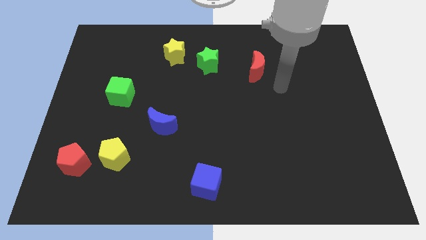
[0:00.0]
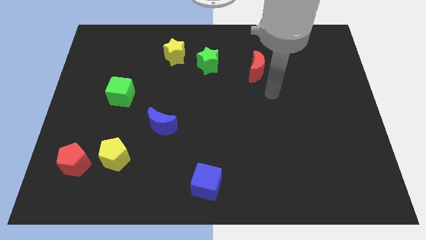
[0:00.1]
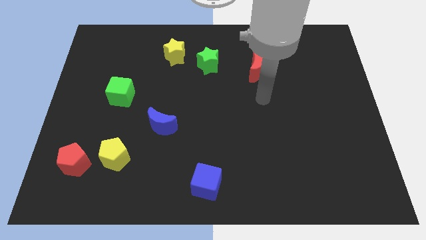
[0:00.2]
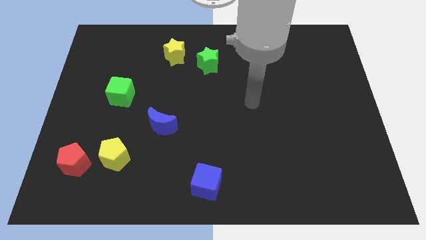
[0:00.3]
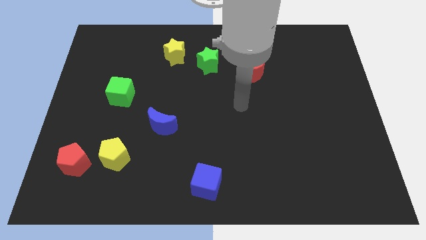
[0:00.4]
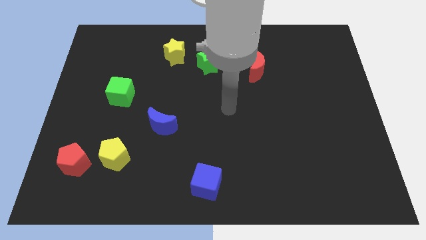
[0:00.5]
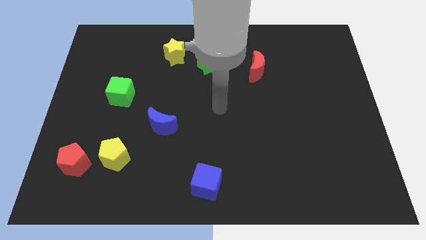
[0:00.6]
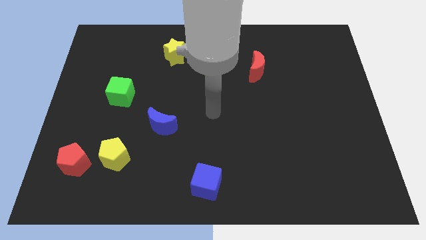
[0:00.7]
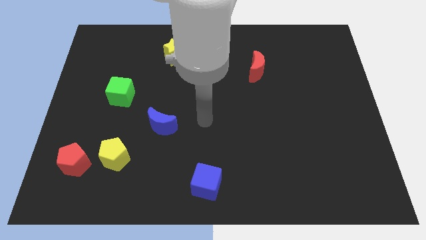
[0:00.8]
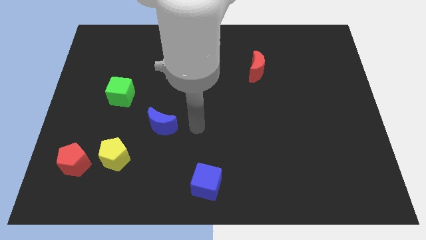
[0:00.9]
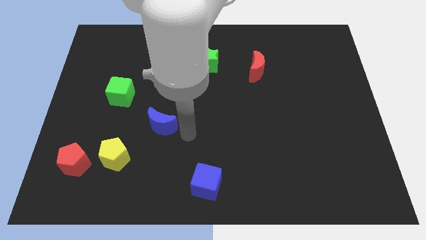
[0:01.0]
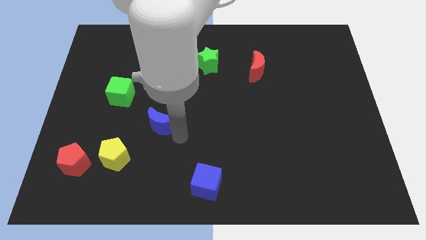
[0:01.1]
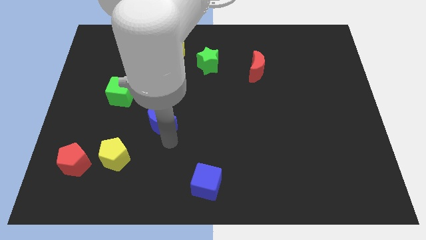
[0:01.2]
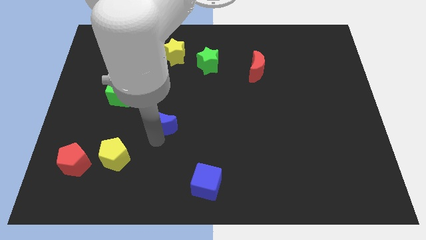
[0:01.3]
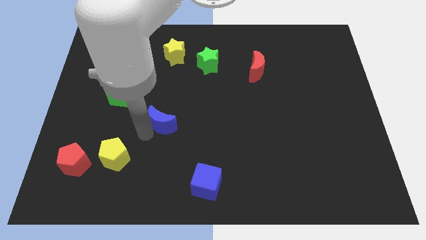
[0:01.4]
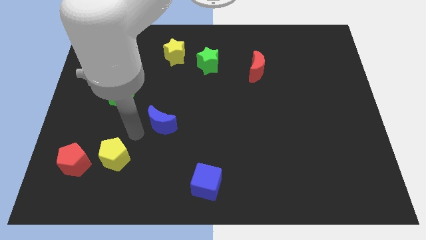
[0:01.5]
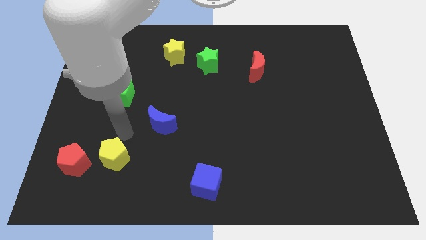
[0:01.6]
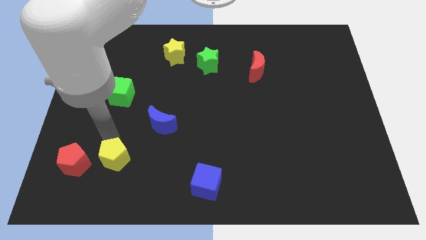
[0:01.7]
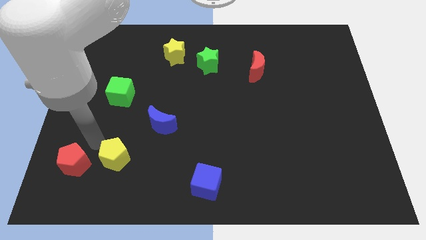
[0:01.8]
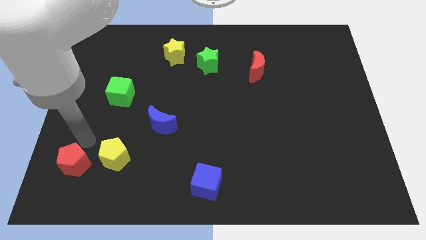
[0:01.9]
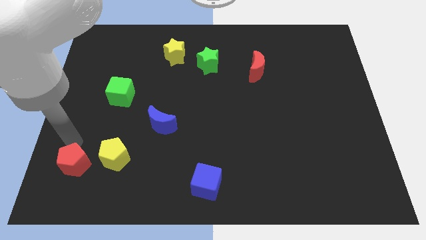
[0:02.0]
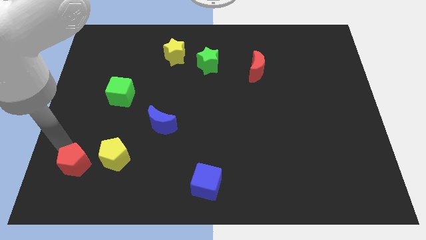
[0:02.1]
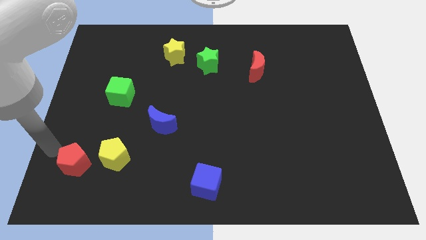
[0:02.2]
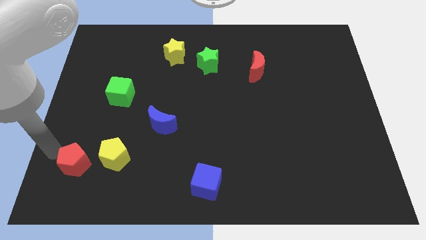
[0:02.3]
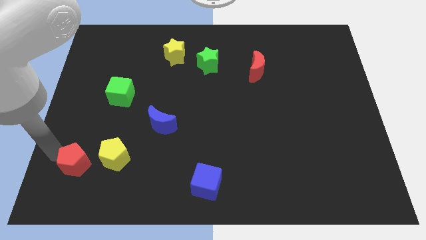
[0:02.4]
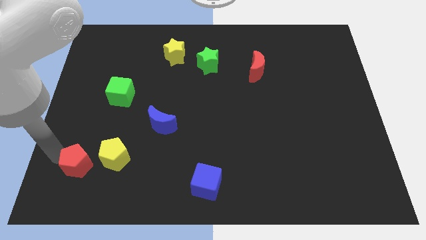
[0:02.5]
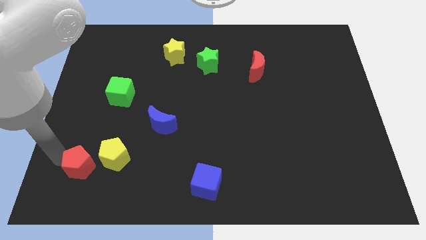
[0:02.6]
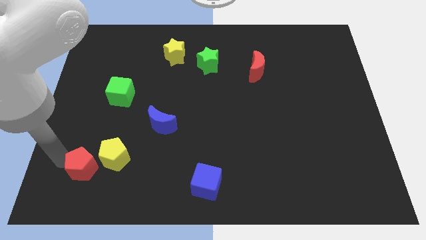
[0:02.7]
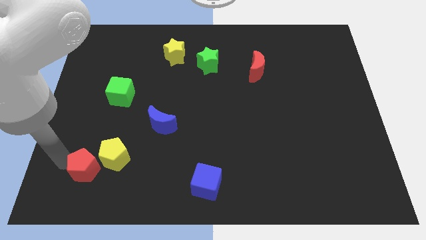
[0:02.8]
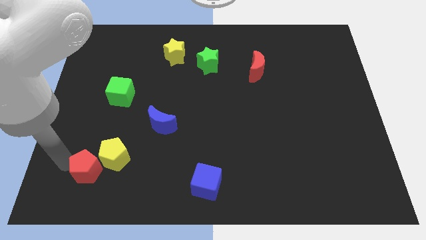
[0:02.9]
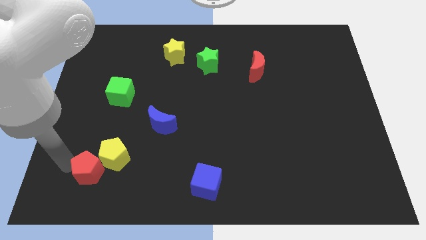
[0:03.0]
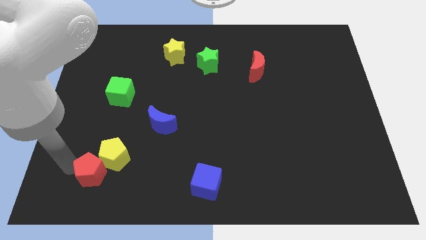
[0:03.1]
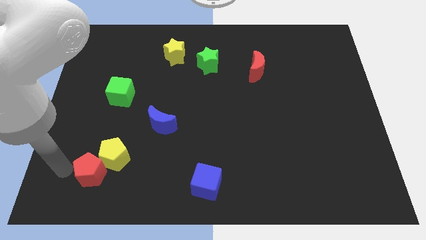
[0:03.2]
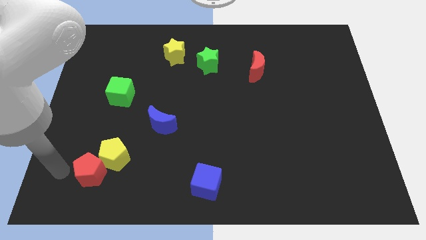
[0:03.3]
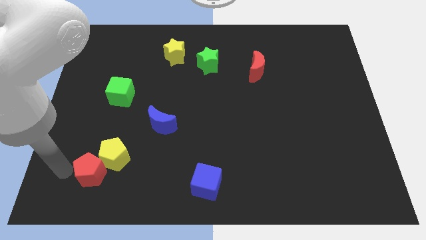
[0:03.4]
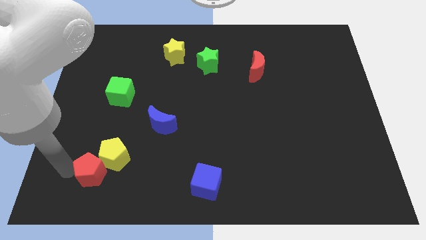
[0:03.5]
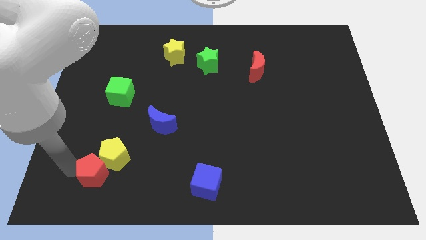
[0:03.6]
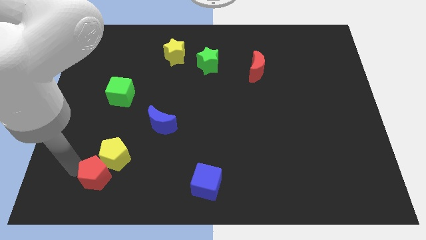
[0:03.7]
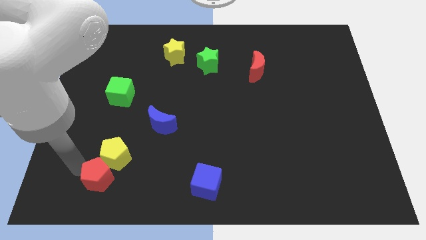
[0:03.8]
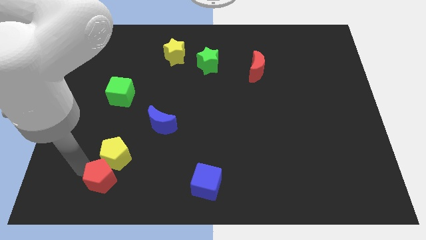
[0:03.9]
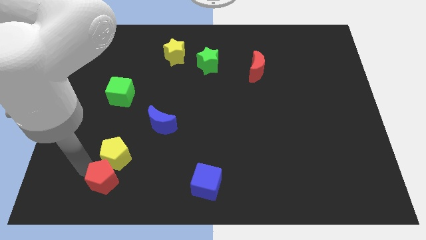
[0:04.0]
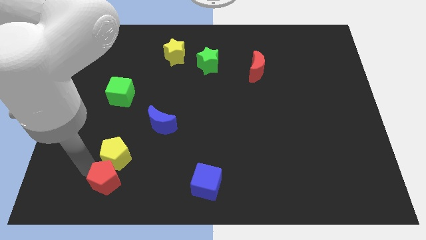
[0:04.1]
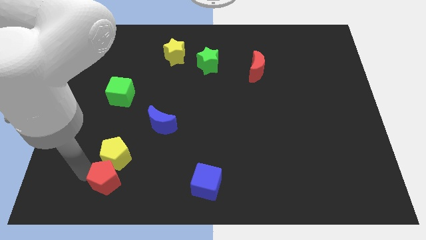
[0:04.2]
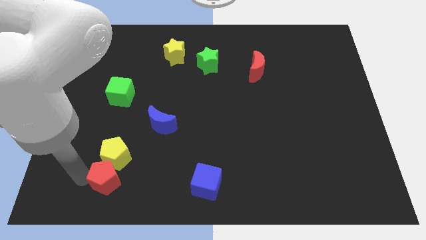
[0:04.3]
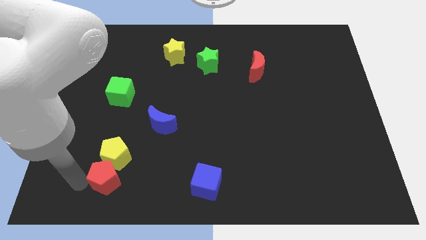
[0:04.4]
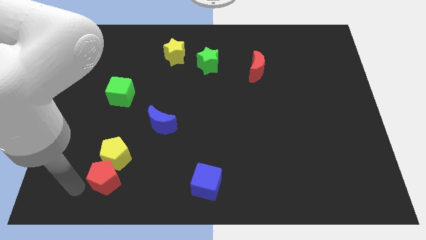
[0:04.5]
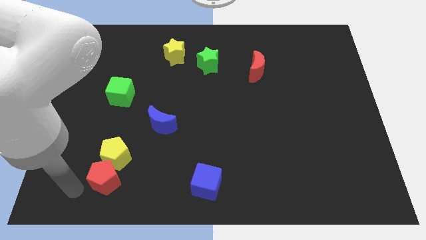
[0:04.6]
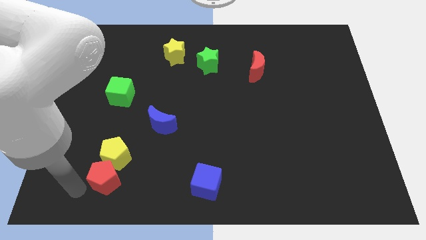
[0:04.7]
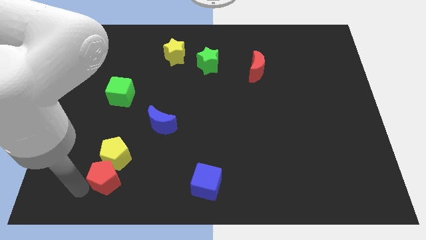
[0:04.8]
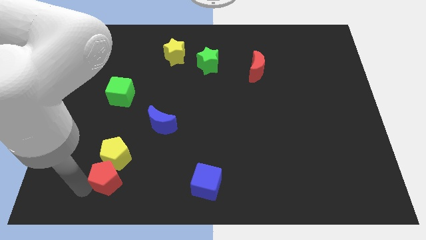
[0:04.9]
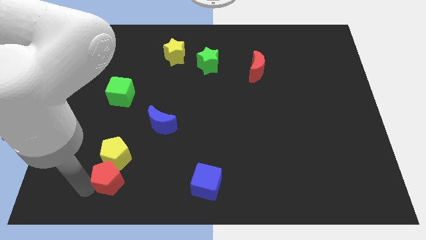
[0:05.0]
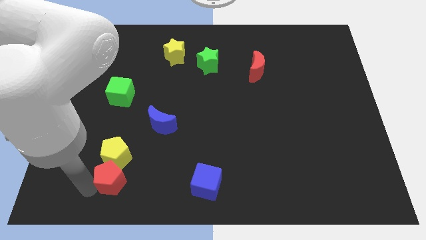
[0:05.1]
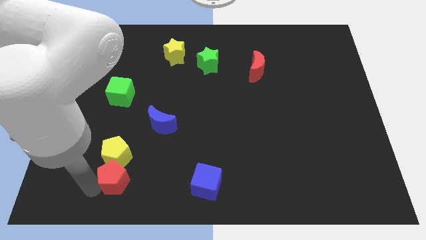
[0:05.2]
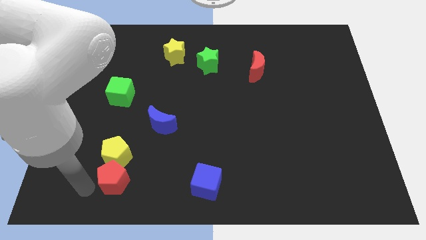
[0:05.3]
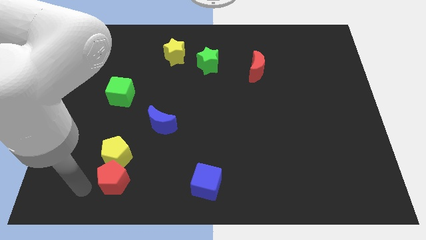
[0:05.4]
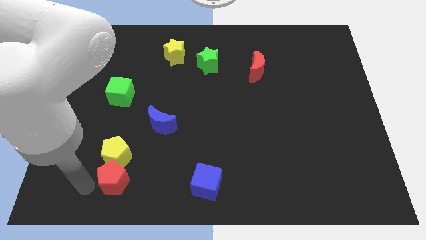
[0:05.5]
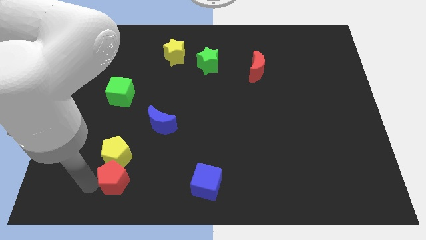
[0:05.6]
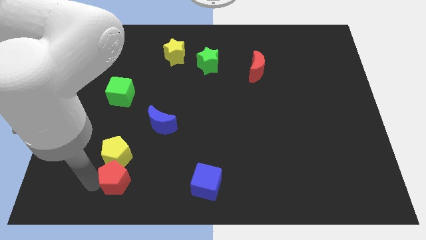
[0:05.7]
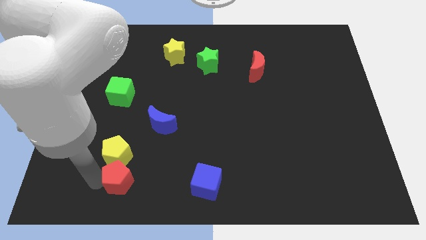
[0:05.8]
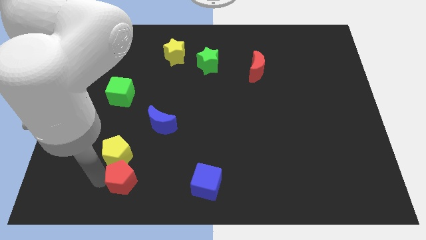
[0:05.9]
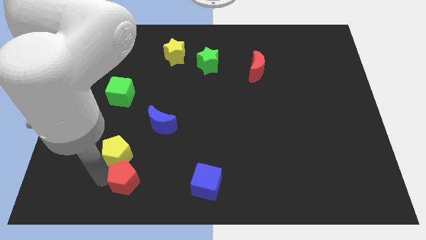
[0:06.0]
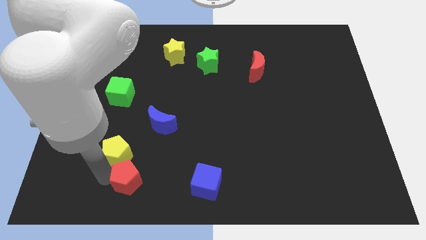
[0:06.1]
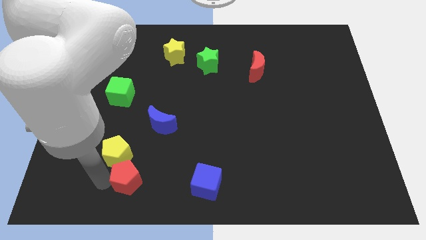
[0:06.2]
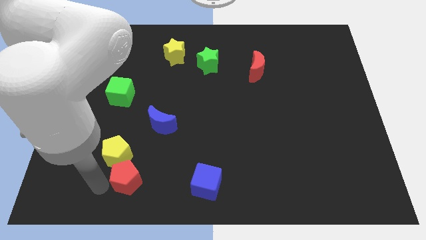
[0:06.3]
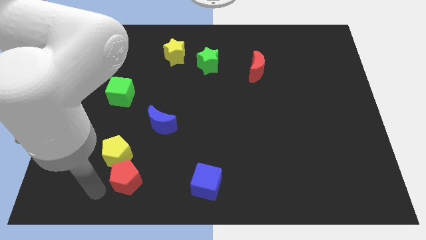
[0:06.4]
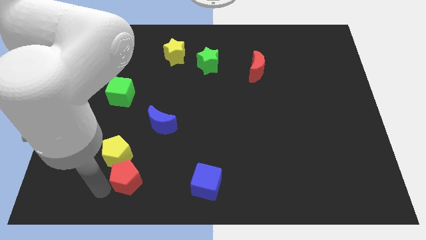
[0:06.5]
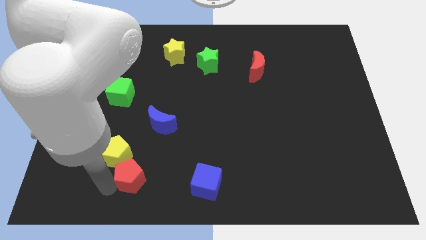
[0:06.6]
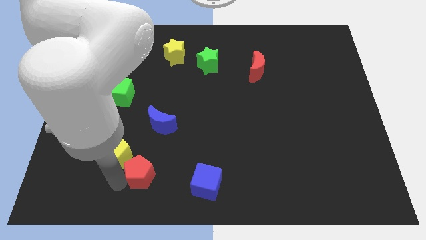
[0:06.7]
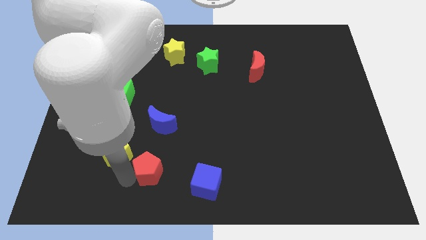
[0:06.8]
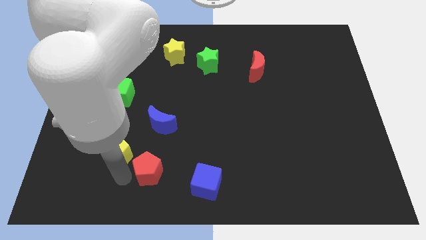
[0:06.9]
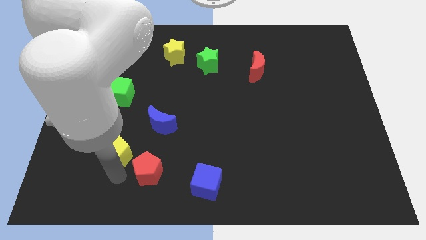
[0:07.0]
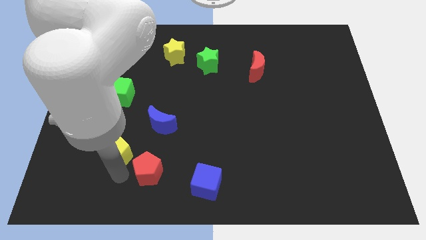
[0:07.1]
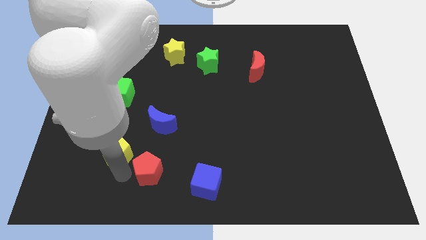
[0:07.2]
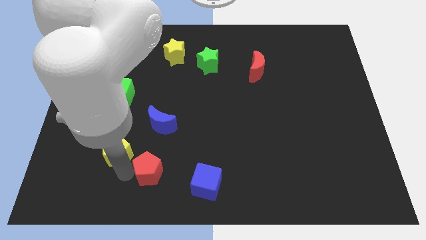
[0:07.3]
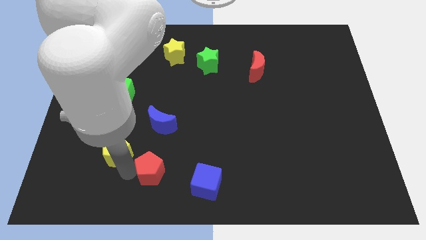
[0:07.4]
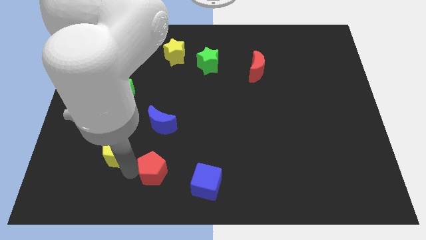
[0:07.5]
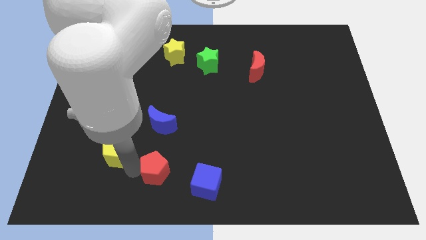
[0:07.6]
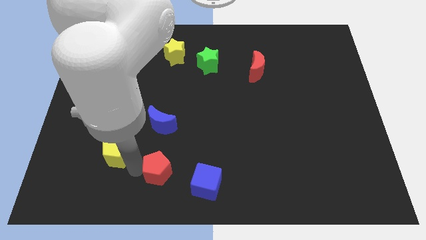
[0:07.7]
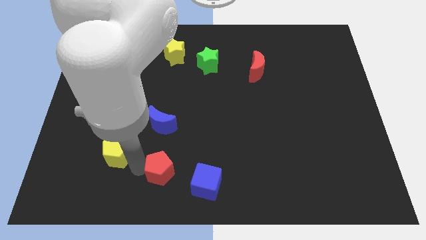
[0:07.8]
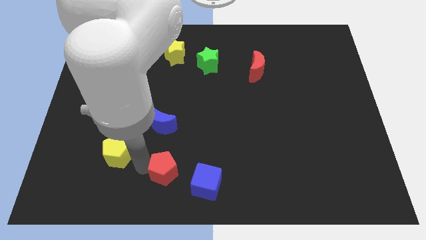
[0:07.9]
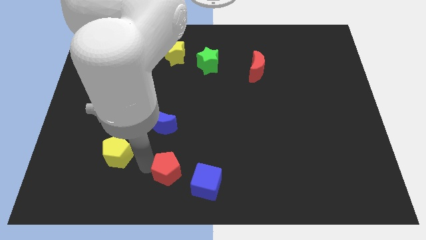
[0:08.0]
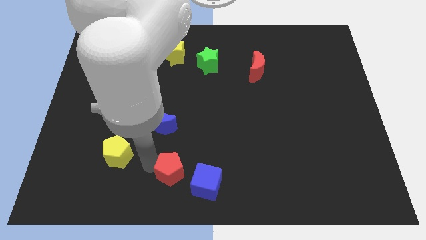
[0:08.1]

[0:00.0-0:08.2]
move the red pentagon to the right
